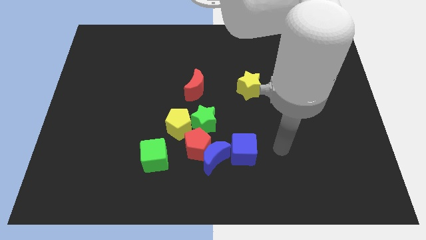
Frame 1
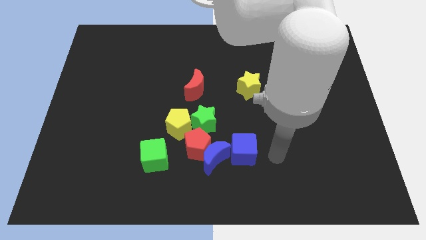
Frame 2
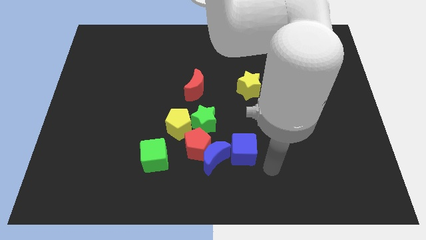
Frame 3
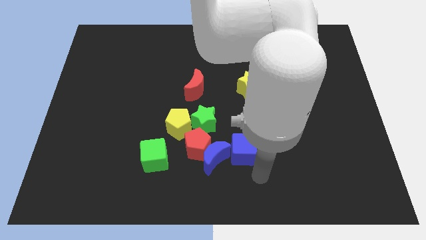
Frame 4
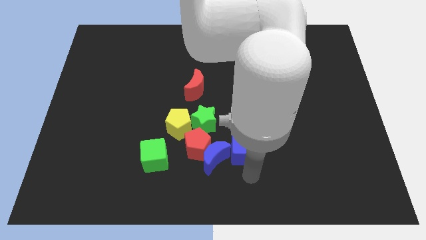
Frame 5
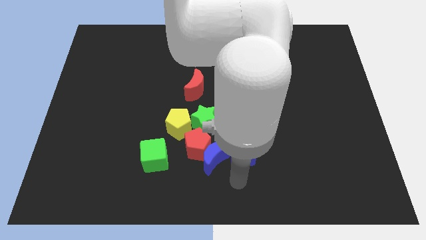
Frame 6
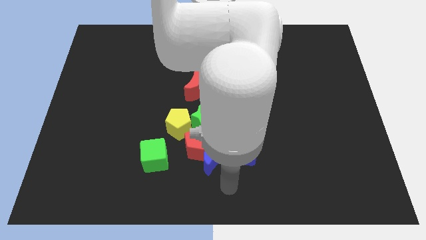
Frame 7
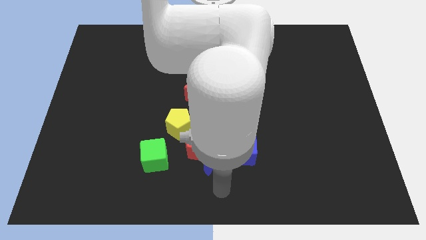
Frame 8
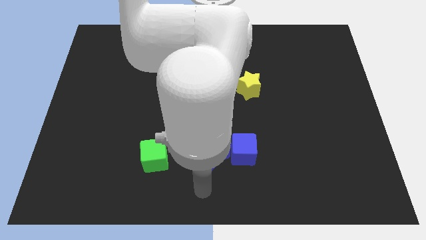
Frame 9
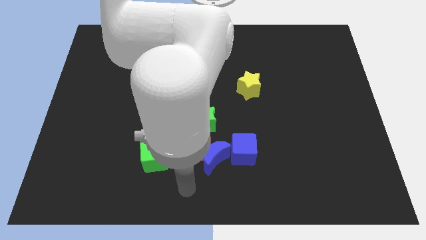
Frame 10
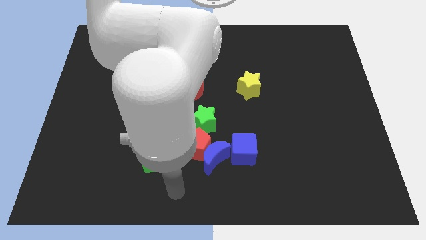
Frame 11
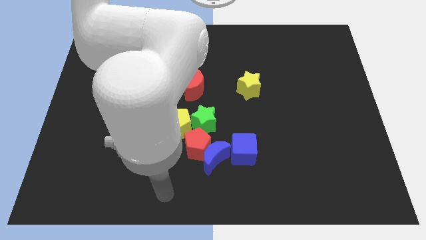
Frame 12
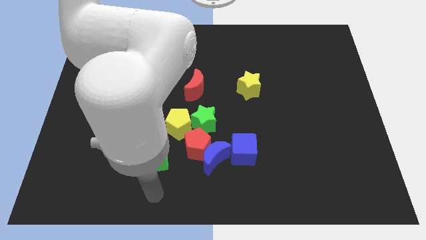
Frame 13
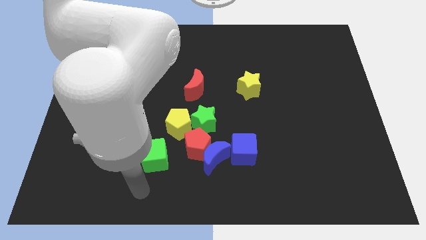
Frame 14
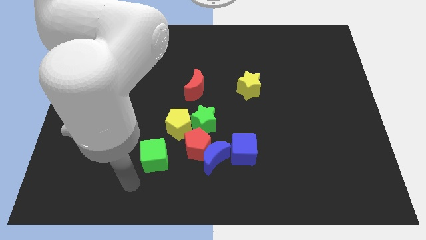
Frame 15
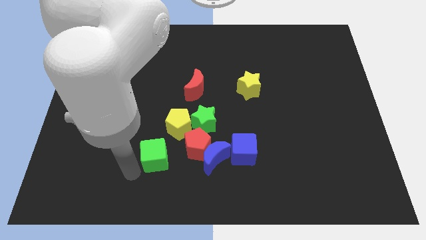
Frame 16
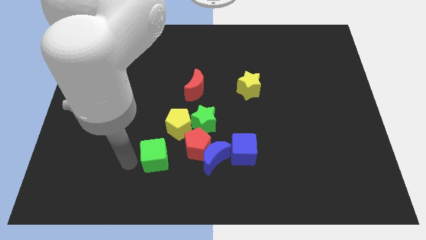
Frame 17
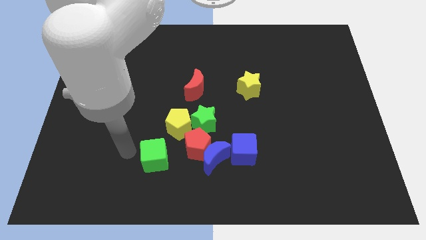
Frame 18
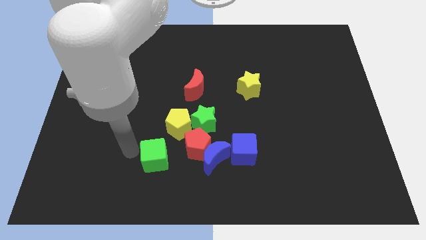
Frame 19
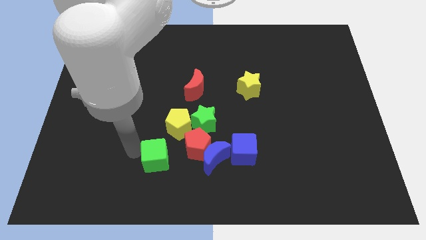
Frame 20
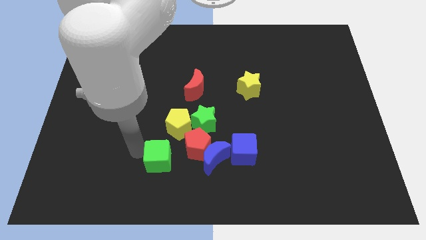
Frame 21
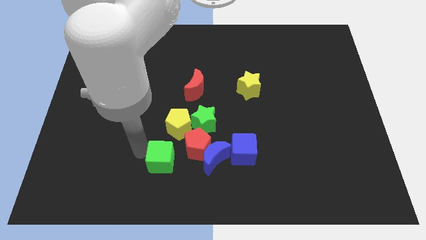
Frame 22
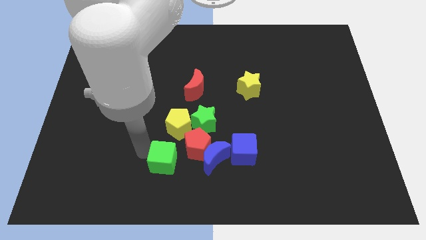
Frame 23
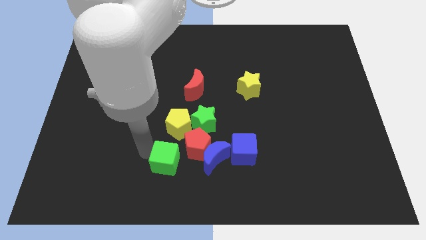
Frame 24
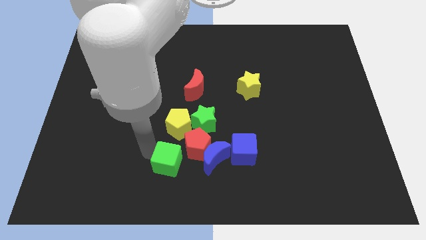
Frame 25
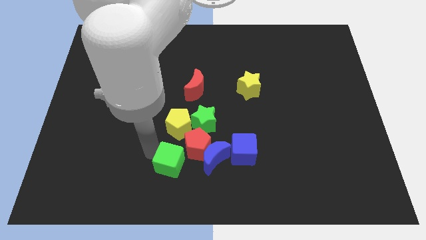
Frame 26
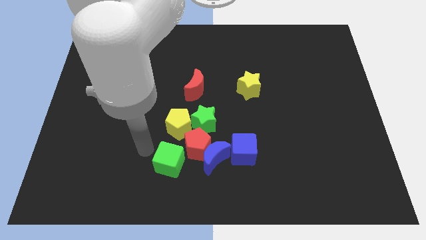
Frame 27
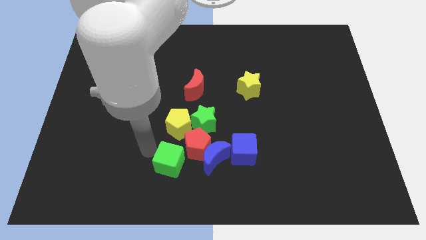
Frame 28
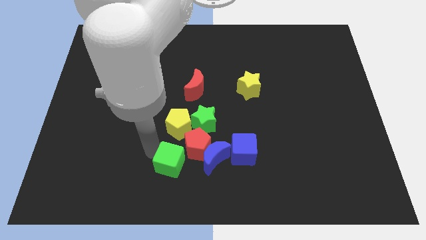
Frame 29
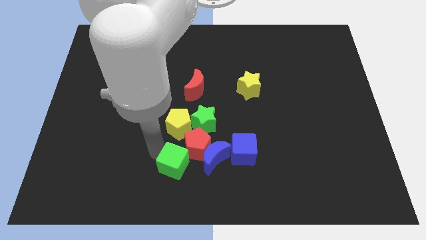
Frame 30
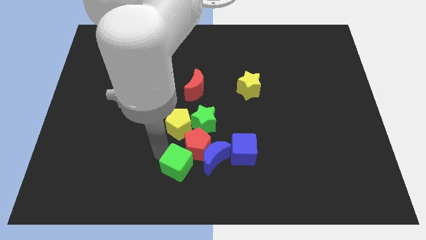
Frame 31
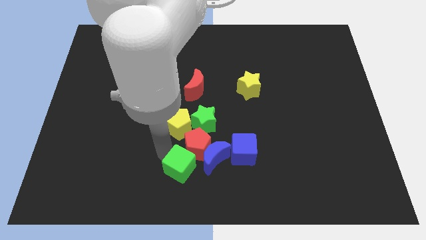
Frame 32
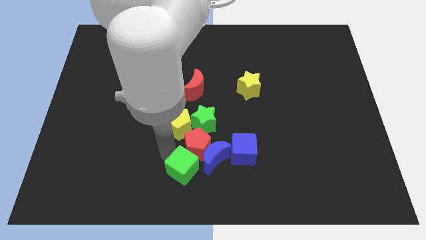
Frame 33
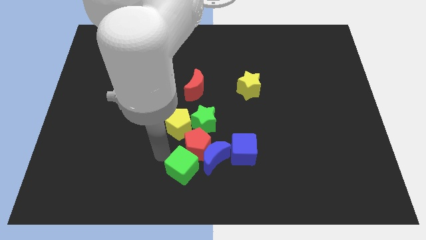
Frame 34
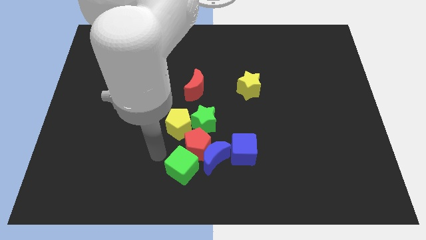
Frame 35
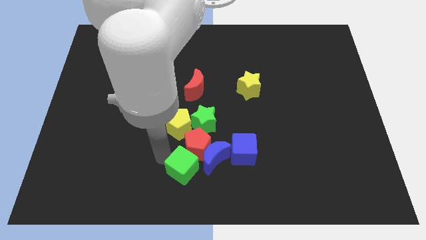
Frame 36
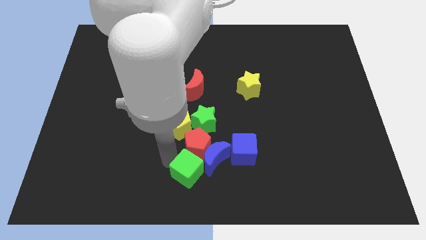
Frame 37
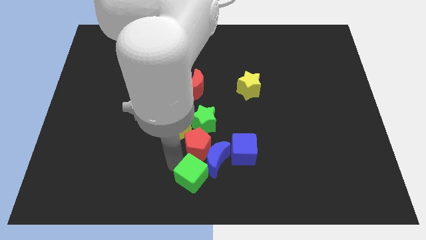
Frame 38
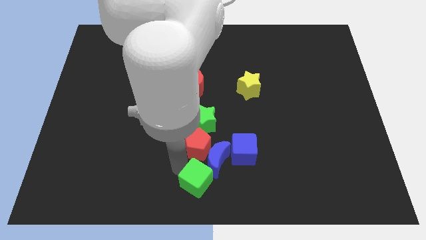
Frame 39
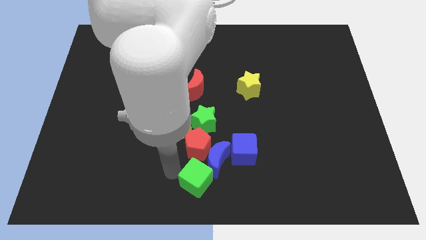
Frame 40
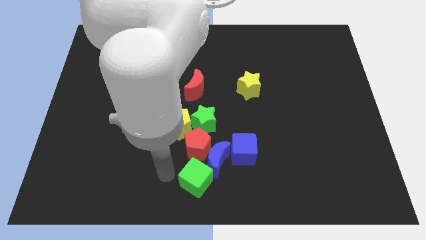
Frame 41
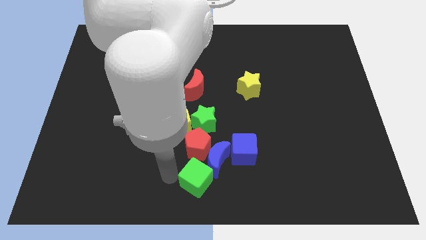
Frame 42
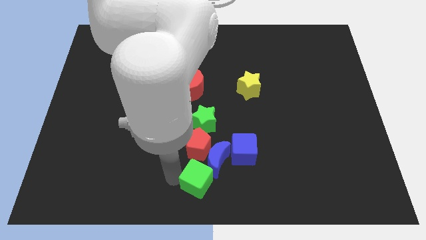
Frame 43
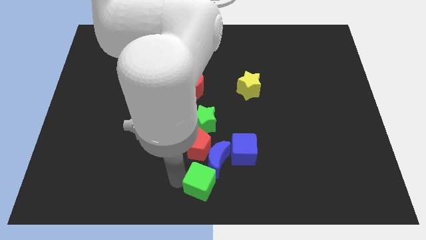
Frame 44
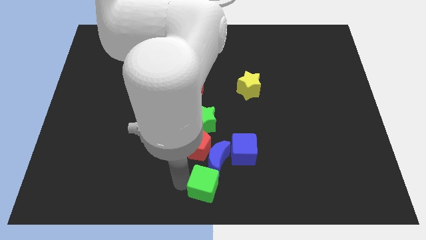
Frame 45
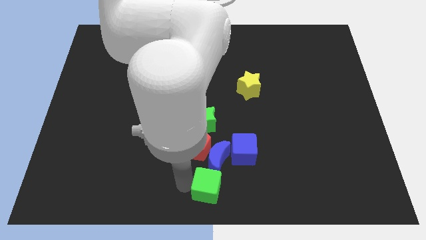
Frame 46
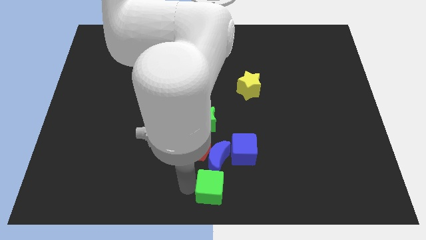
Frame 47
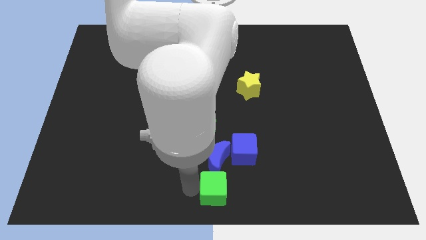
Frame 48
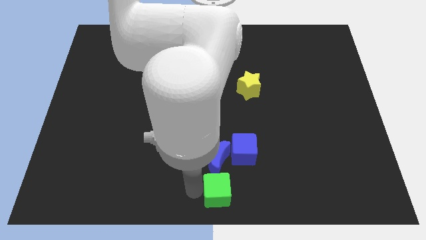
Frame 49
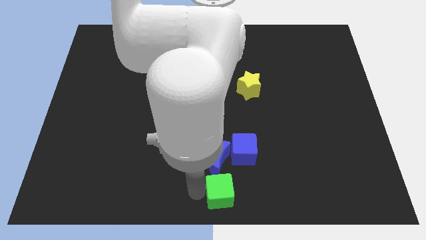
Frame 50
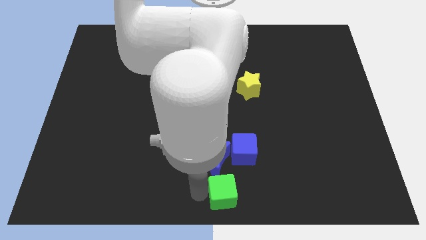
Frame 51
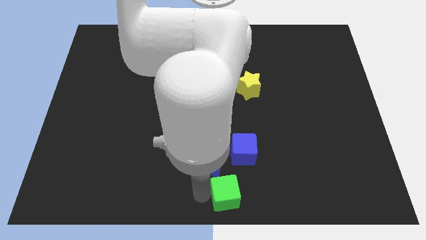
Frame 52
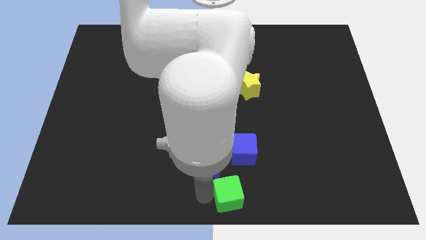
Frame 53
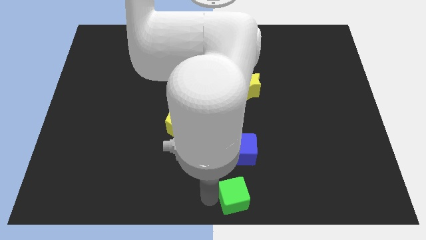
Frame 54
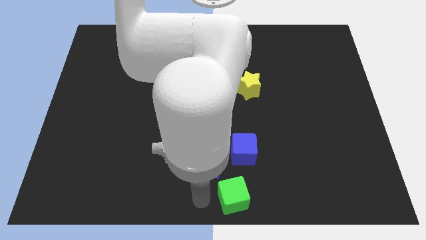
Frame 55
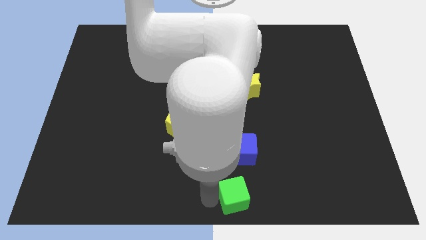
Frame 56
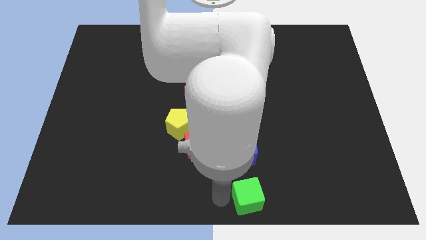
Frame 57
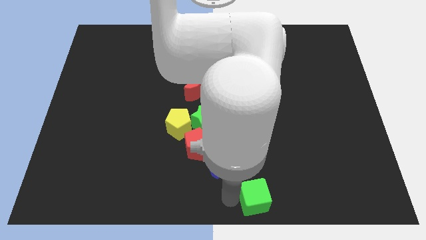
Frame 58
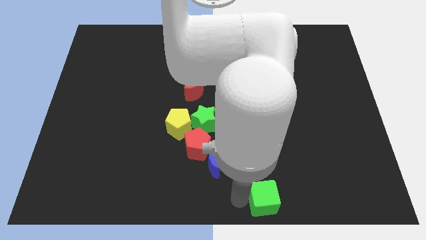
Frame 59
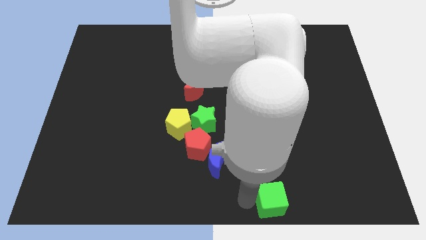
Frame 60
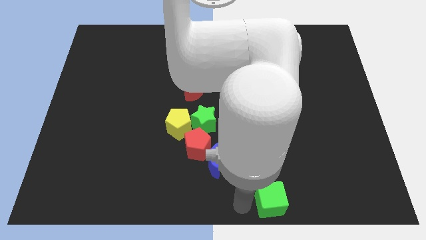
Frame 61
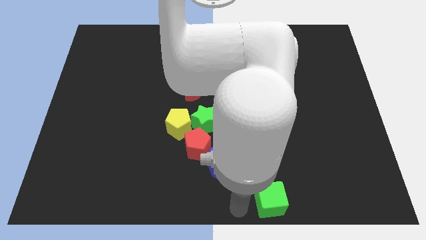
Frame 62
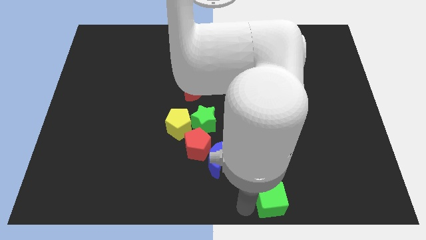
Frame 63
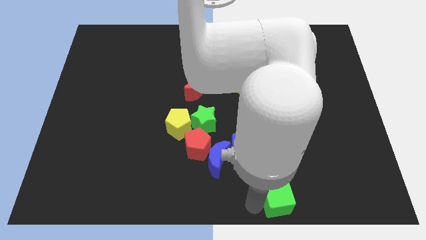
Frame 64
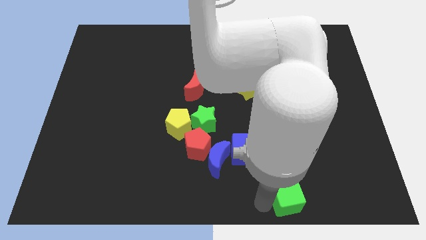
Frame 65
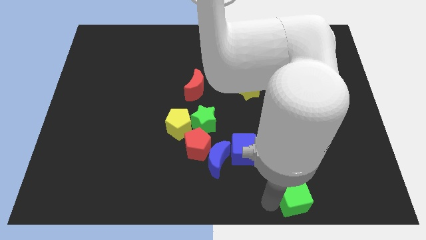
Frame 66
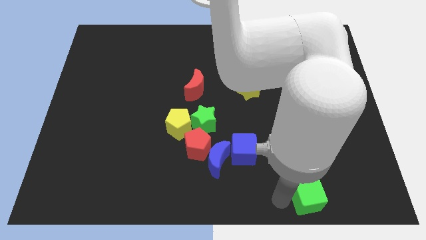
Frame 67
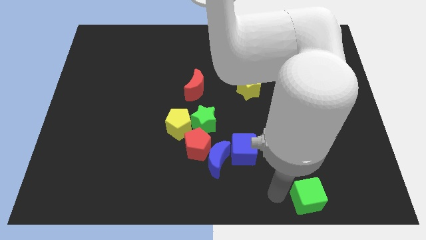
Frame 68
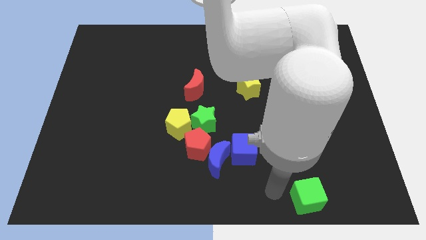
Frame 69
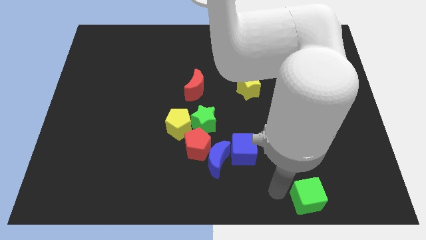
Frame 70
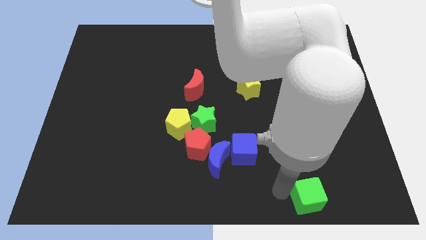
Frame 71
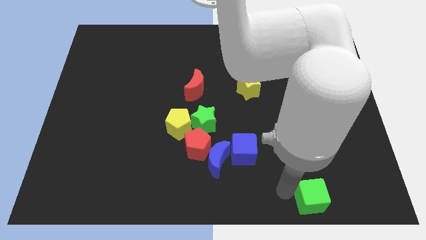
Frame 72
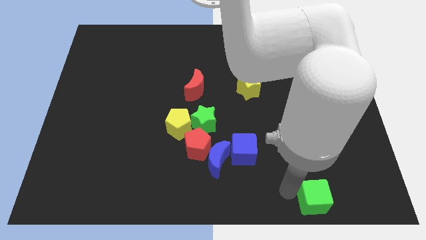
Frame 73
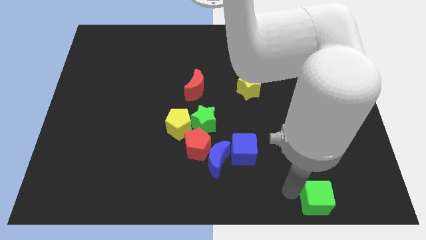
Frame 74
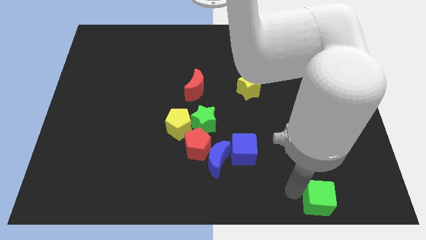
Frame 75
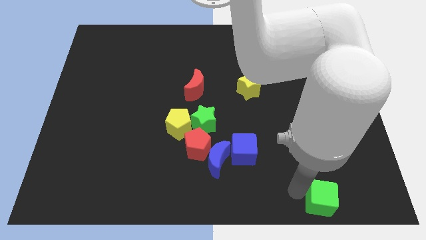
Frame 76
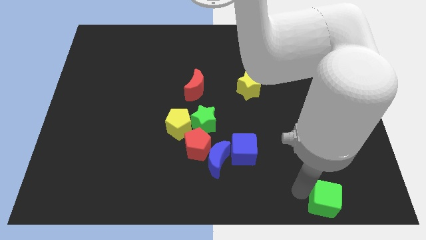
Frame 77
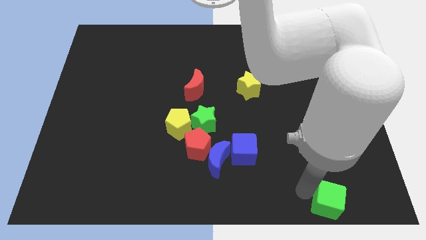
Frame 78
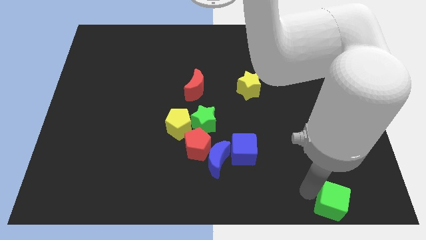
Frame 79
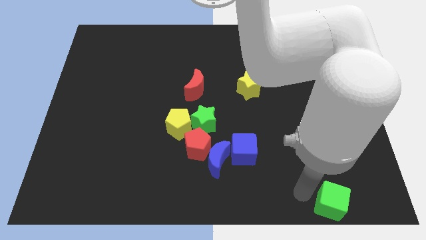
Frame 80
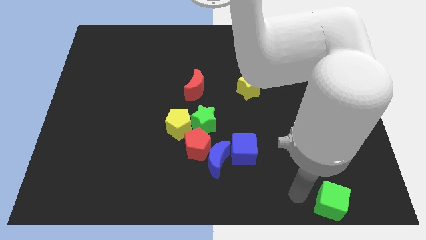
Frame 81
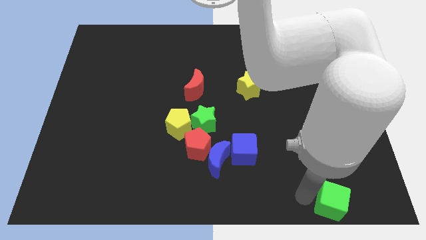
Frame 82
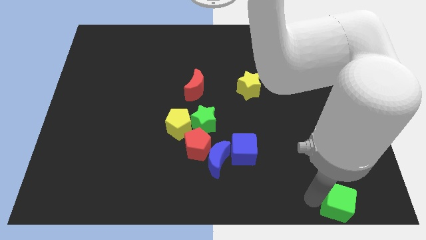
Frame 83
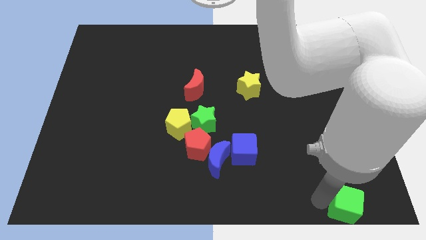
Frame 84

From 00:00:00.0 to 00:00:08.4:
move the green cube to the bottom right corner
